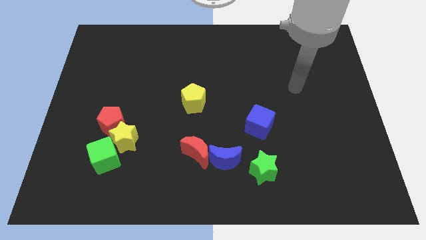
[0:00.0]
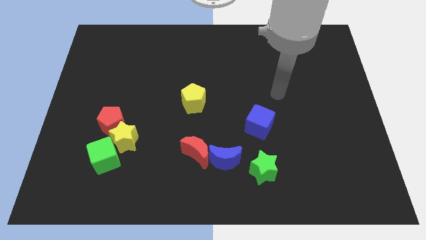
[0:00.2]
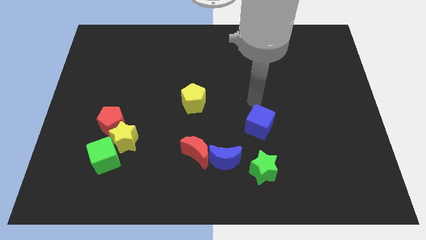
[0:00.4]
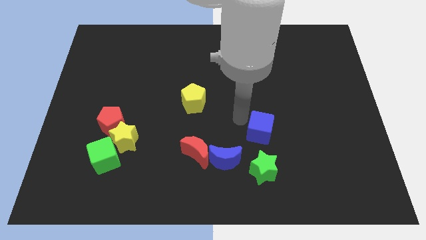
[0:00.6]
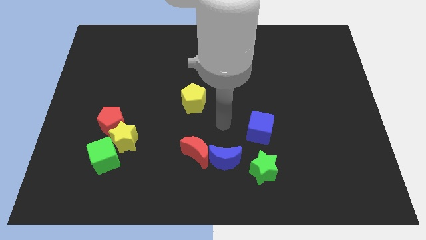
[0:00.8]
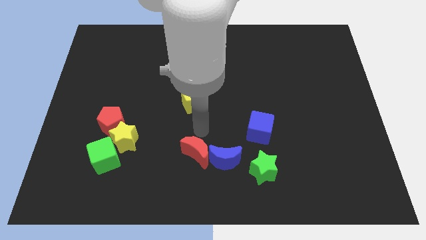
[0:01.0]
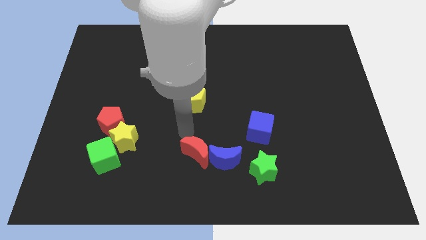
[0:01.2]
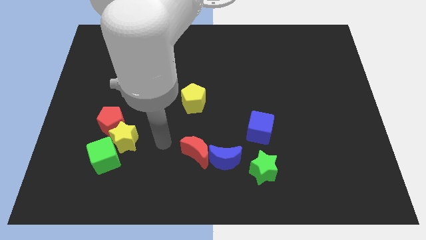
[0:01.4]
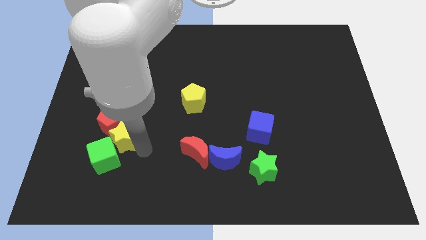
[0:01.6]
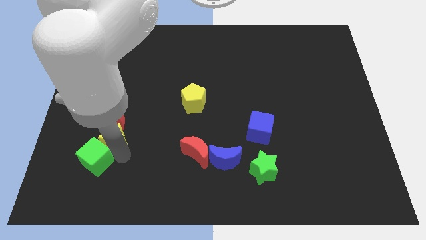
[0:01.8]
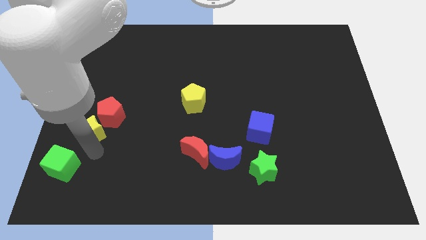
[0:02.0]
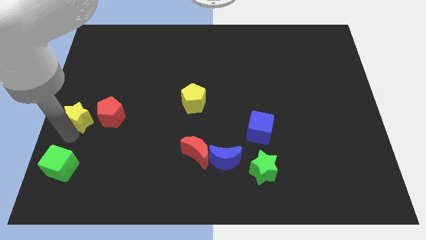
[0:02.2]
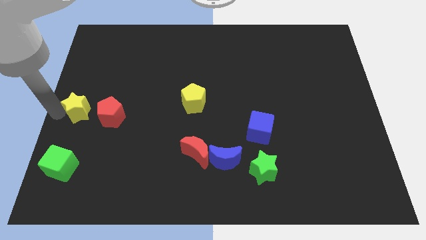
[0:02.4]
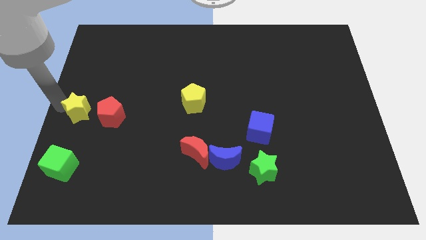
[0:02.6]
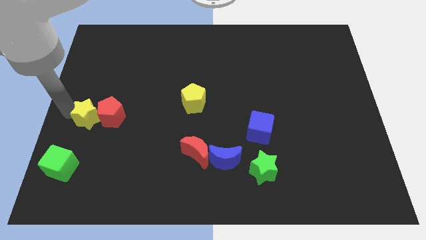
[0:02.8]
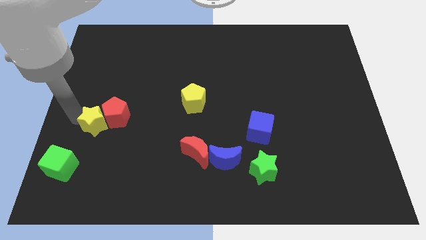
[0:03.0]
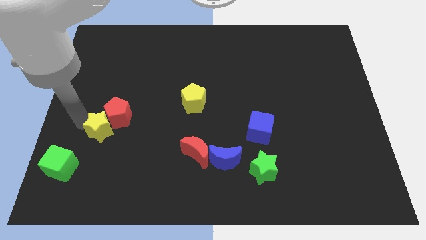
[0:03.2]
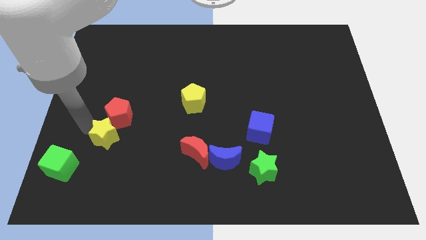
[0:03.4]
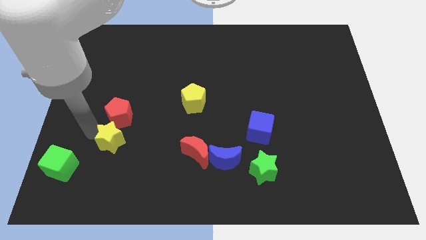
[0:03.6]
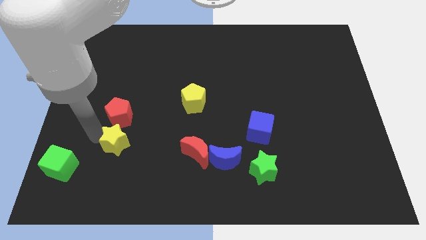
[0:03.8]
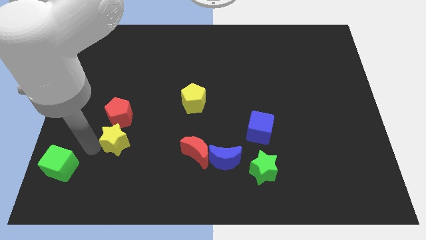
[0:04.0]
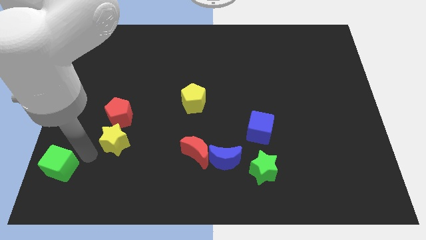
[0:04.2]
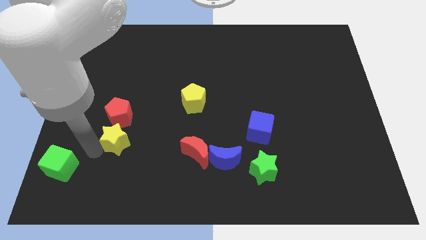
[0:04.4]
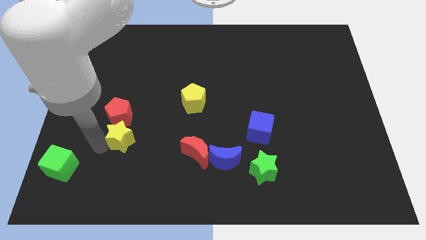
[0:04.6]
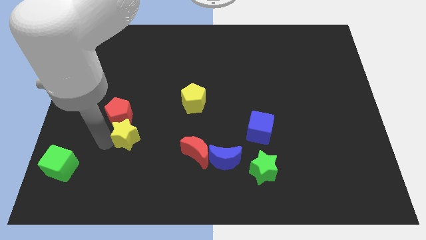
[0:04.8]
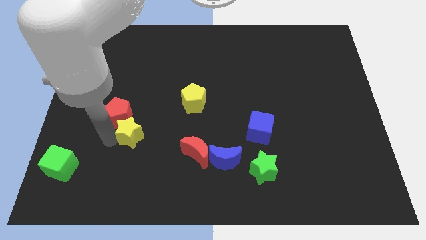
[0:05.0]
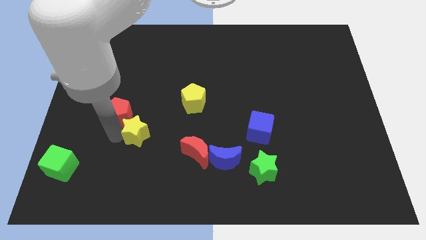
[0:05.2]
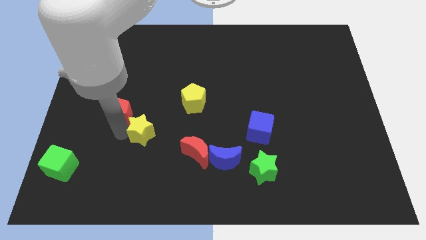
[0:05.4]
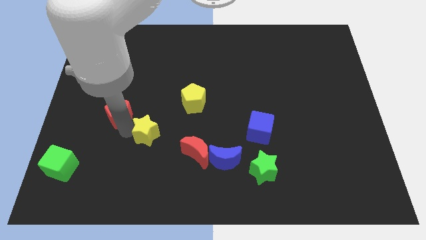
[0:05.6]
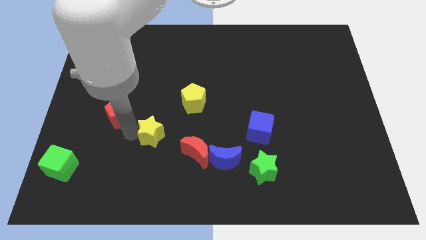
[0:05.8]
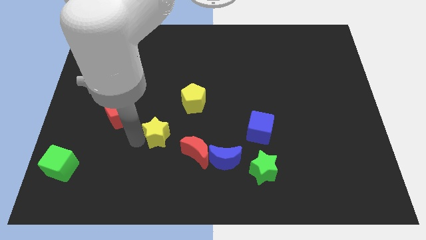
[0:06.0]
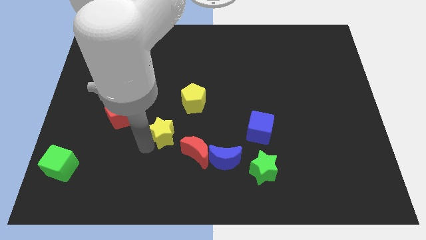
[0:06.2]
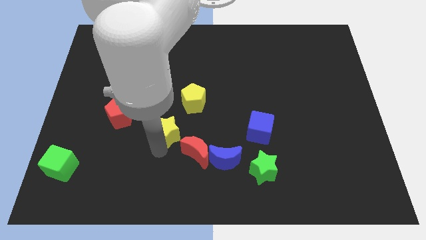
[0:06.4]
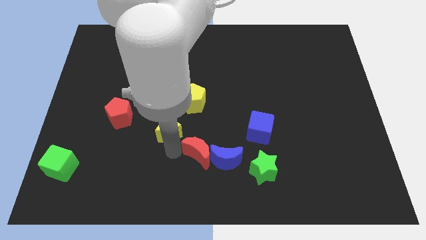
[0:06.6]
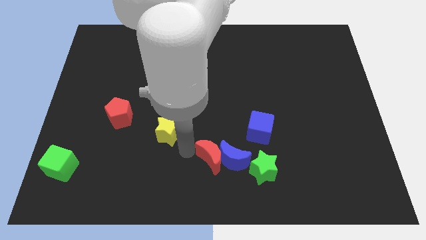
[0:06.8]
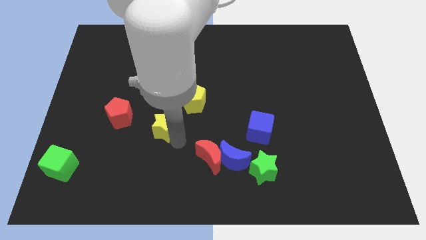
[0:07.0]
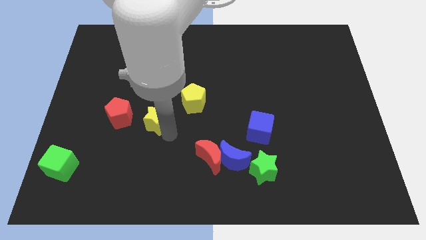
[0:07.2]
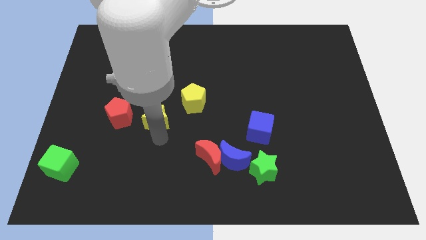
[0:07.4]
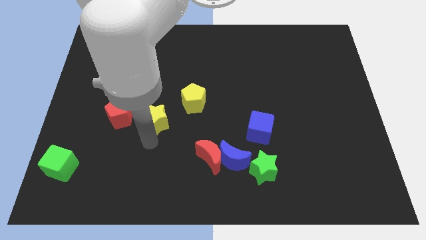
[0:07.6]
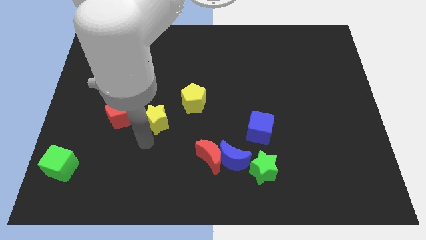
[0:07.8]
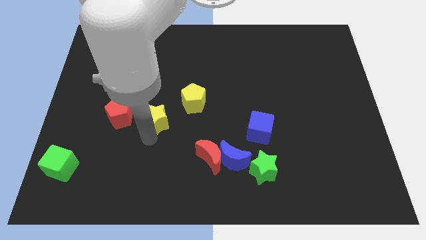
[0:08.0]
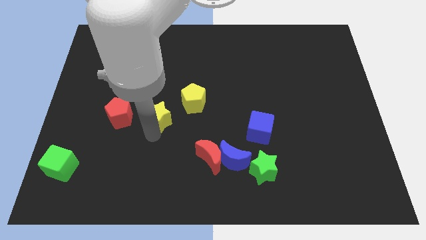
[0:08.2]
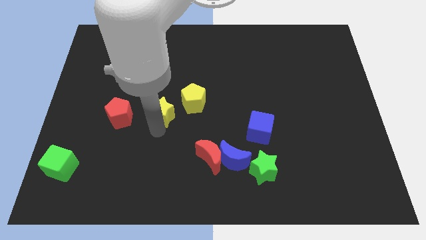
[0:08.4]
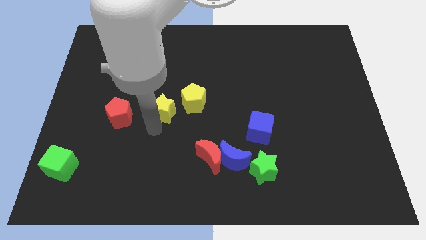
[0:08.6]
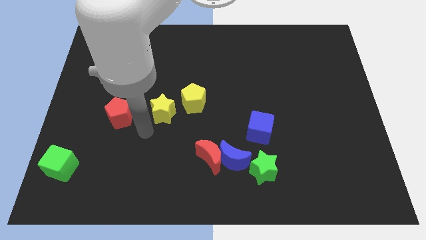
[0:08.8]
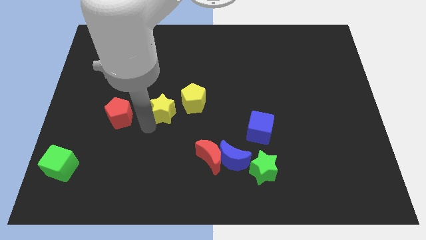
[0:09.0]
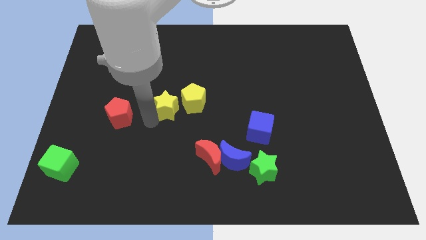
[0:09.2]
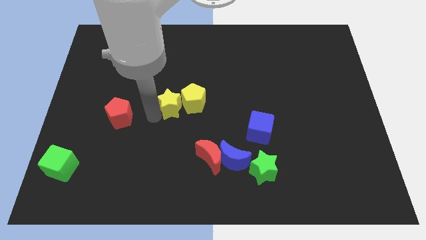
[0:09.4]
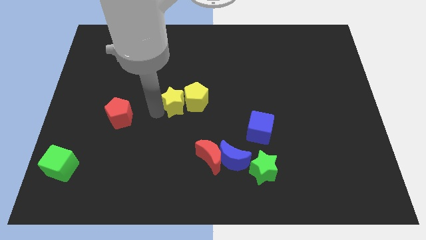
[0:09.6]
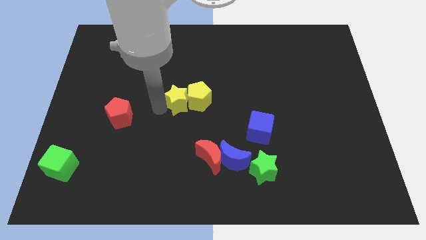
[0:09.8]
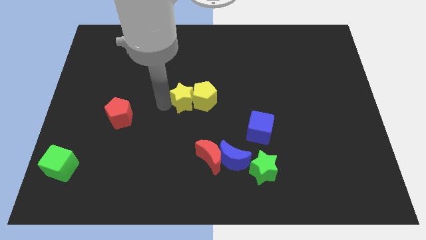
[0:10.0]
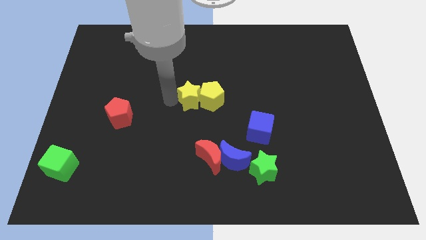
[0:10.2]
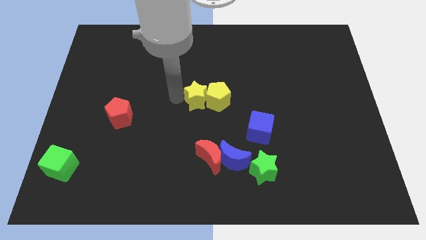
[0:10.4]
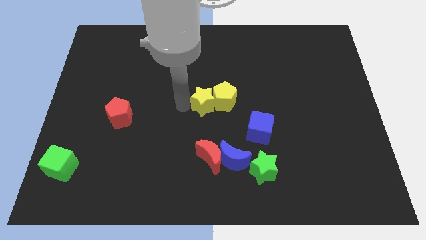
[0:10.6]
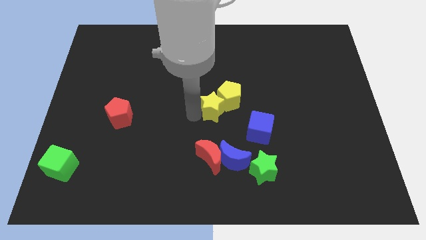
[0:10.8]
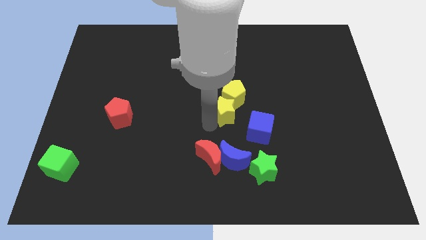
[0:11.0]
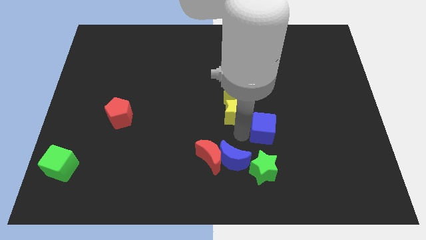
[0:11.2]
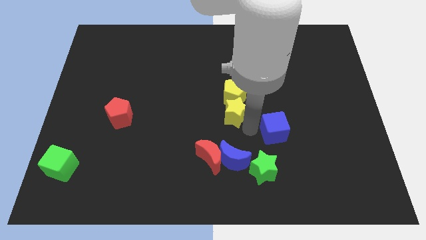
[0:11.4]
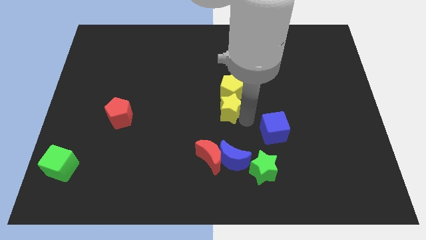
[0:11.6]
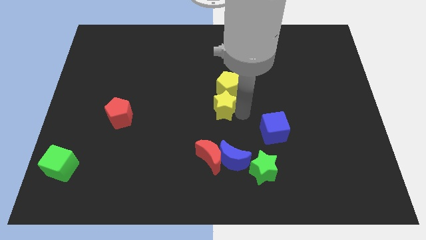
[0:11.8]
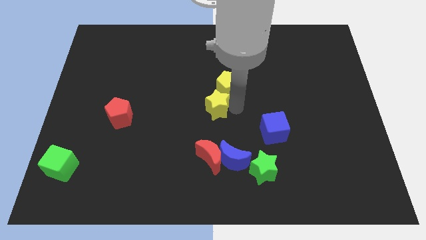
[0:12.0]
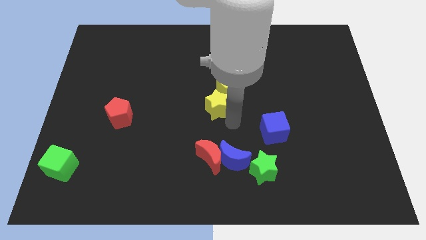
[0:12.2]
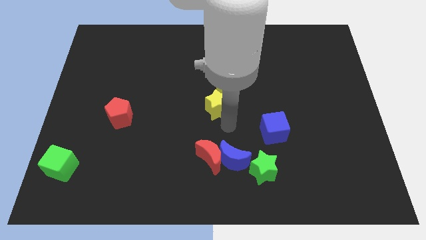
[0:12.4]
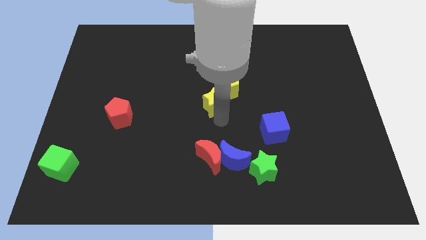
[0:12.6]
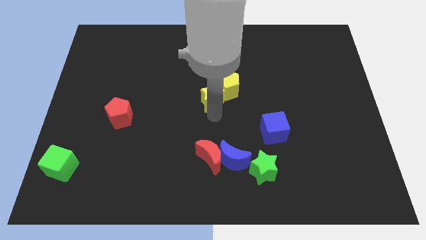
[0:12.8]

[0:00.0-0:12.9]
slide the yellow star upwards and to the right

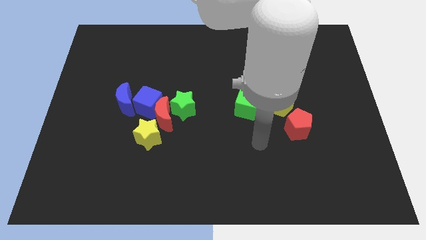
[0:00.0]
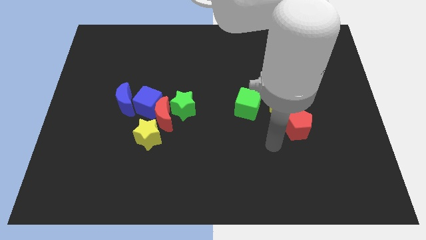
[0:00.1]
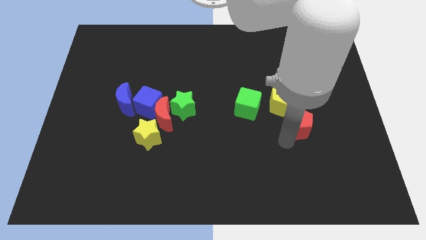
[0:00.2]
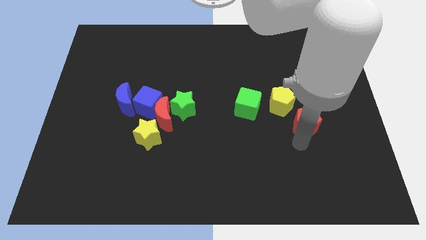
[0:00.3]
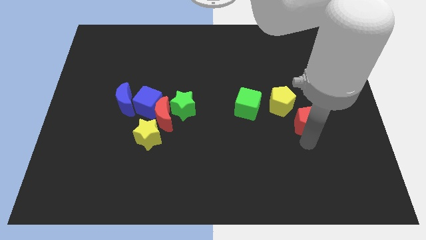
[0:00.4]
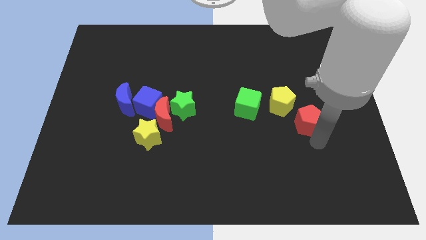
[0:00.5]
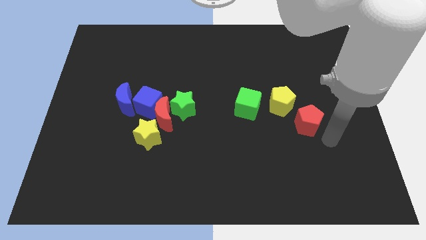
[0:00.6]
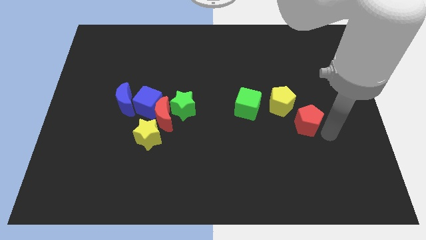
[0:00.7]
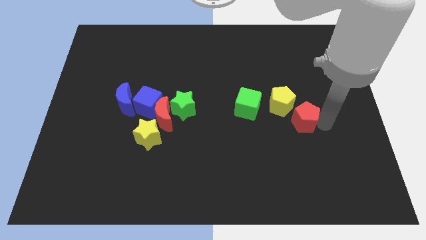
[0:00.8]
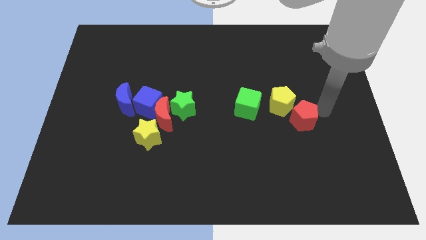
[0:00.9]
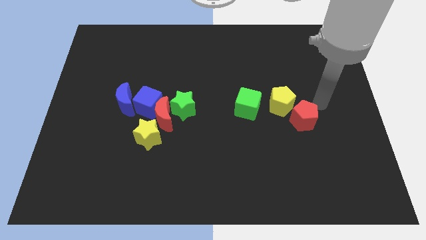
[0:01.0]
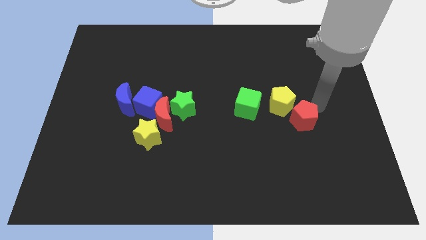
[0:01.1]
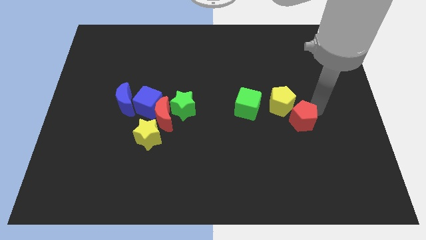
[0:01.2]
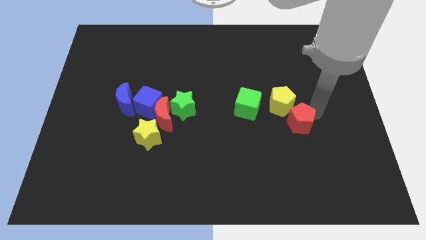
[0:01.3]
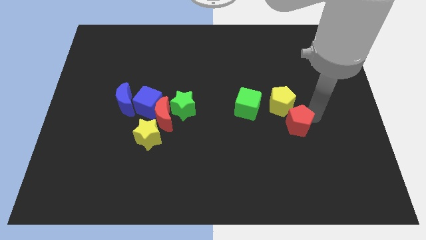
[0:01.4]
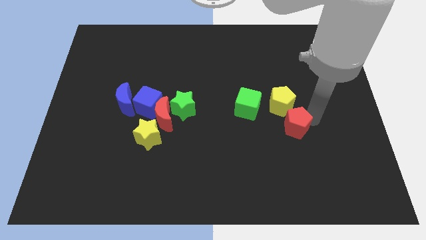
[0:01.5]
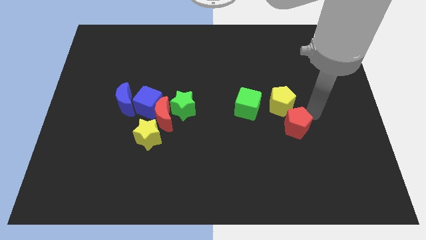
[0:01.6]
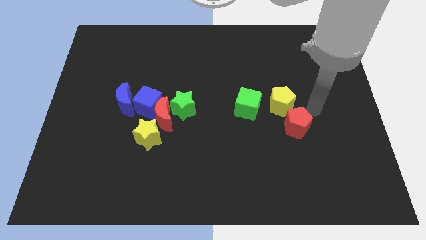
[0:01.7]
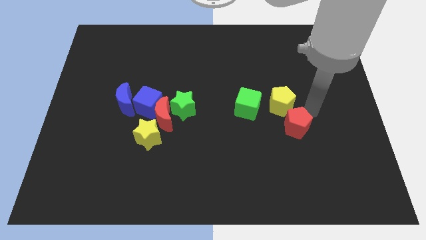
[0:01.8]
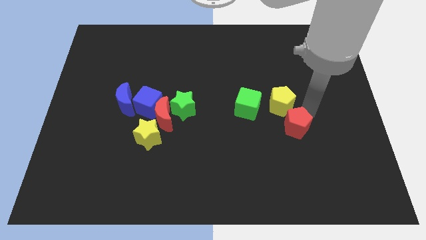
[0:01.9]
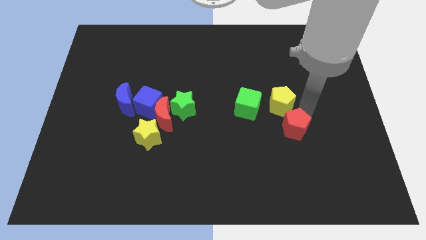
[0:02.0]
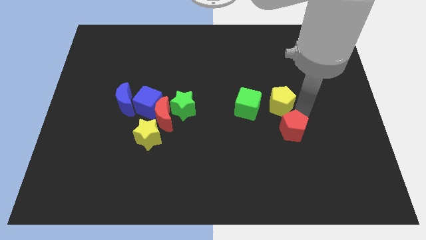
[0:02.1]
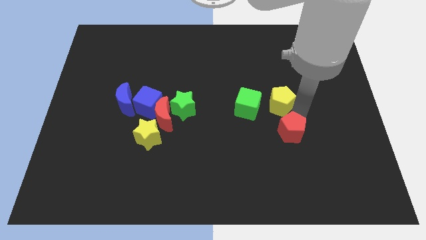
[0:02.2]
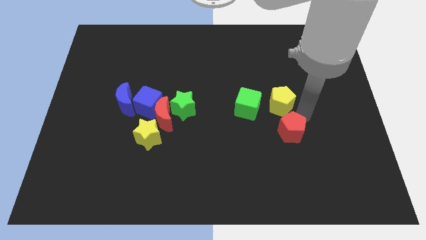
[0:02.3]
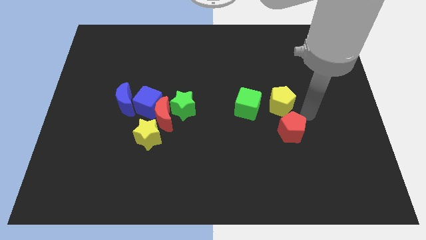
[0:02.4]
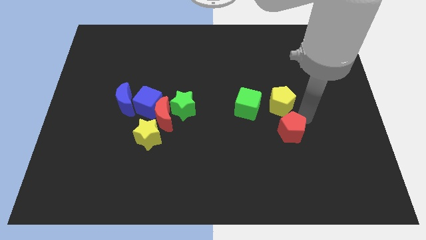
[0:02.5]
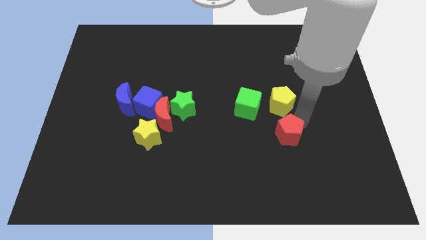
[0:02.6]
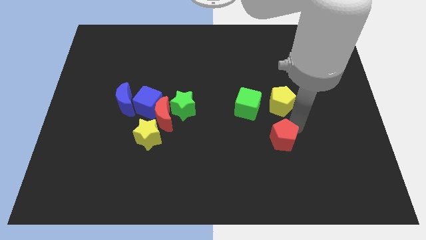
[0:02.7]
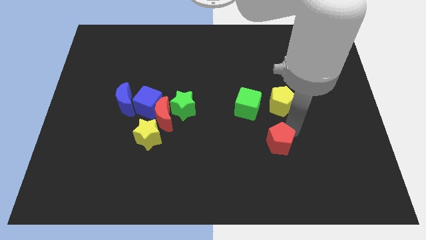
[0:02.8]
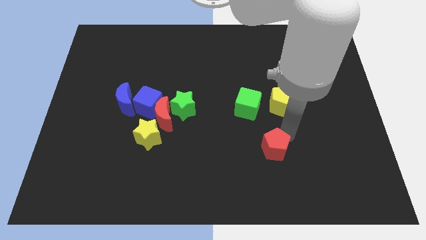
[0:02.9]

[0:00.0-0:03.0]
move the red pentagon a bit diagonally downwards and left
